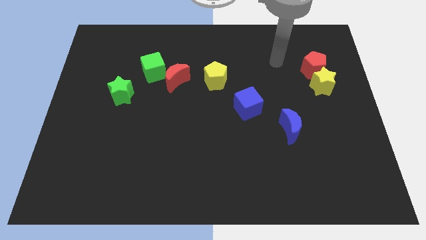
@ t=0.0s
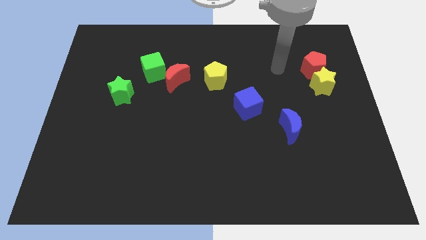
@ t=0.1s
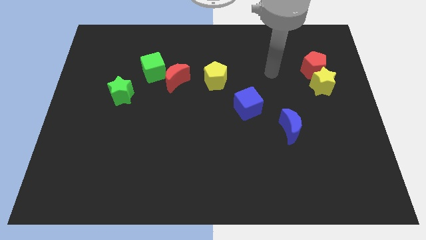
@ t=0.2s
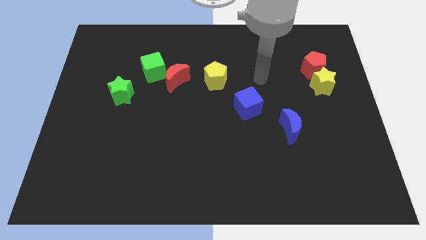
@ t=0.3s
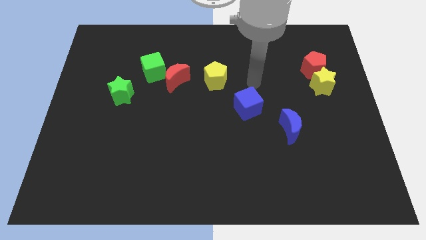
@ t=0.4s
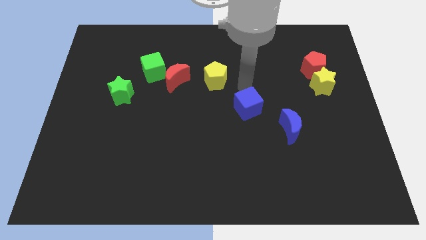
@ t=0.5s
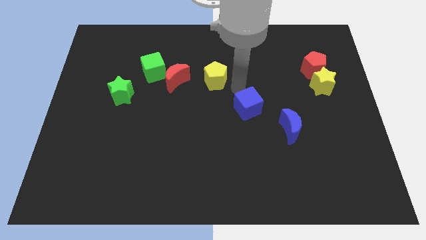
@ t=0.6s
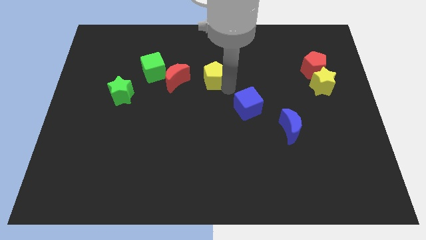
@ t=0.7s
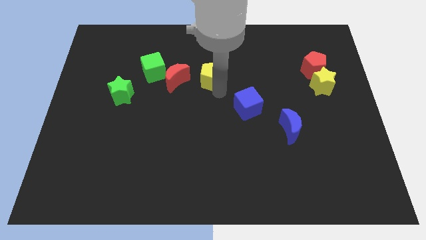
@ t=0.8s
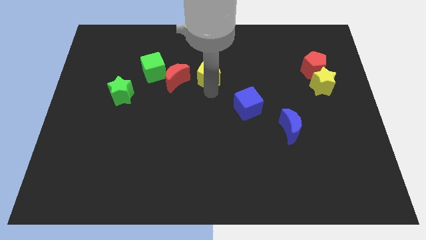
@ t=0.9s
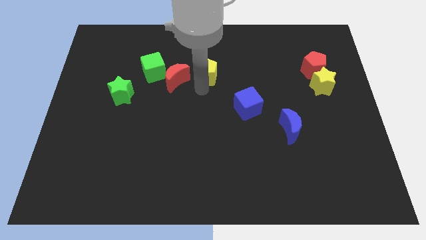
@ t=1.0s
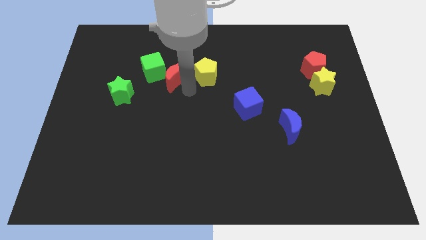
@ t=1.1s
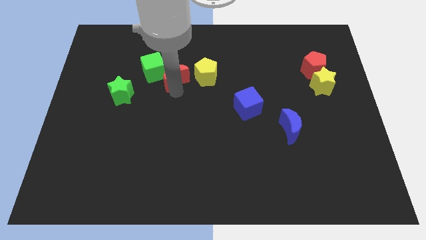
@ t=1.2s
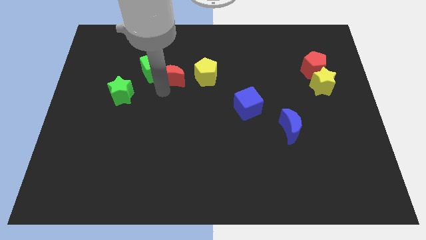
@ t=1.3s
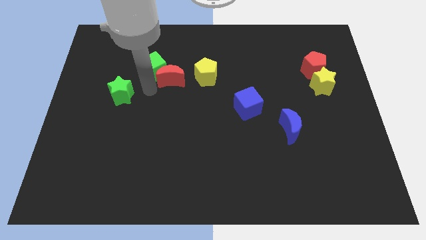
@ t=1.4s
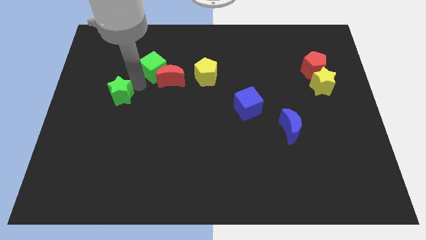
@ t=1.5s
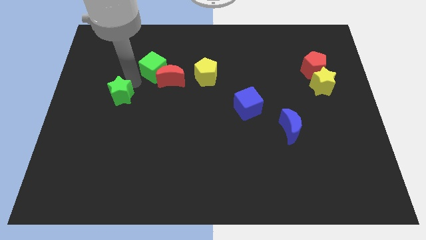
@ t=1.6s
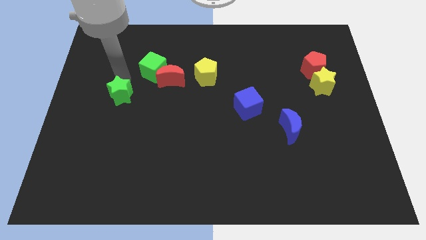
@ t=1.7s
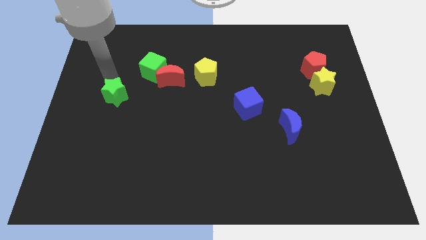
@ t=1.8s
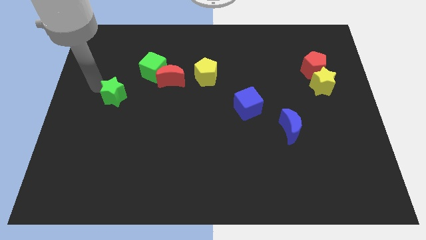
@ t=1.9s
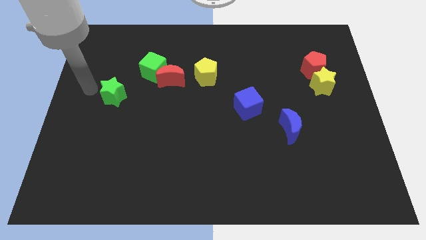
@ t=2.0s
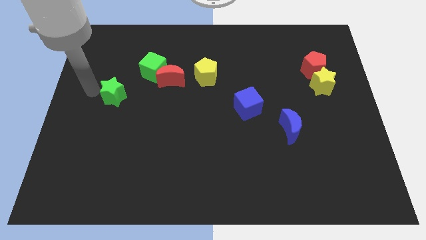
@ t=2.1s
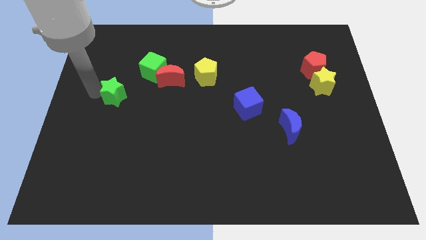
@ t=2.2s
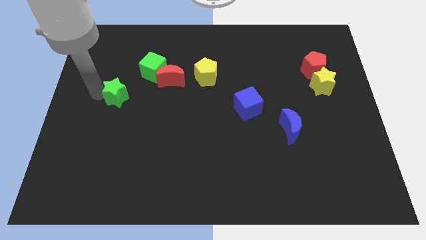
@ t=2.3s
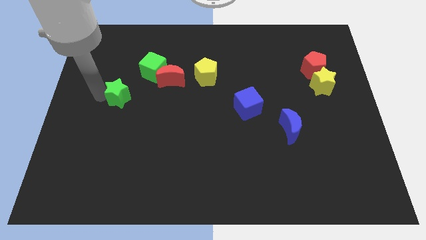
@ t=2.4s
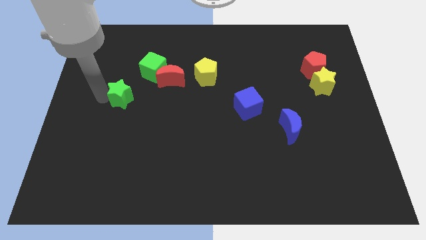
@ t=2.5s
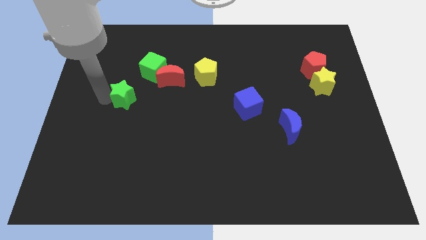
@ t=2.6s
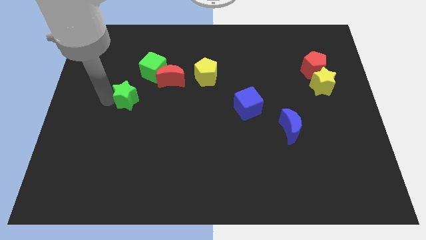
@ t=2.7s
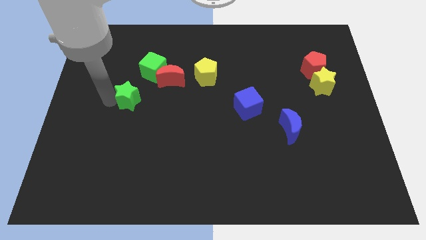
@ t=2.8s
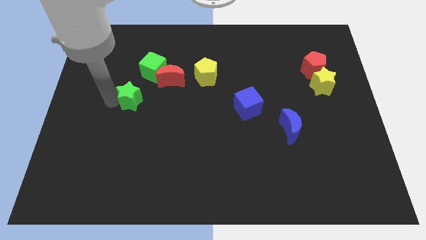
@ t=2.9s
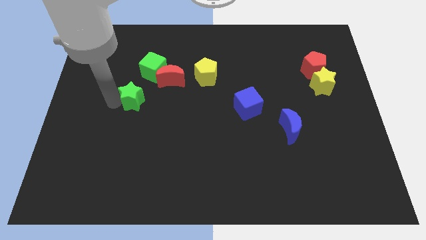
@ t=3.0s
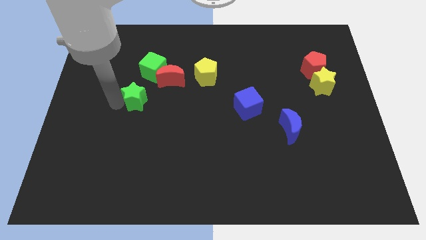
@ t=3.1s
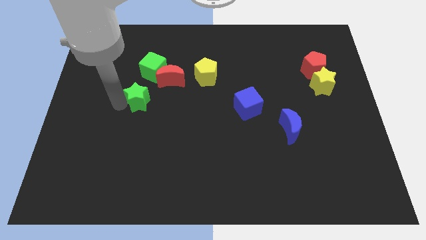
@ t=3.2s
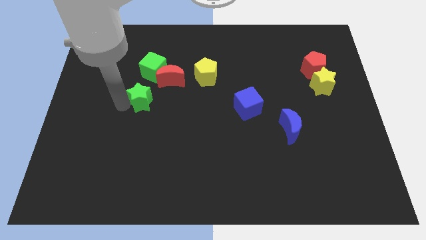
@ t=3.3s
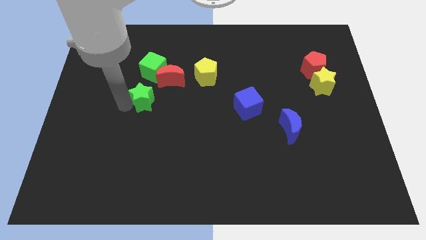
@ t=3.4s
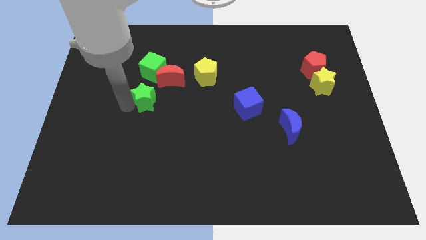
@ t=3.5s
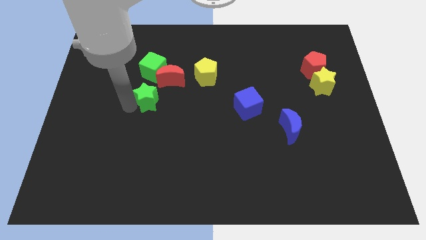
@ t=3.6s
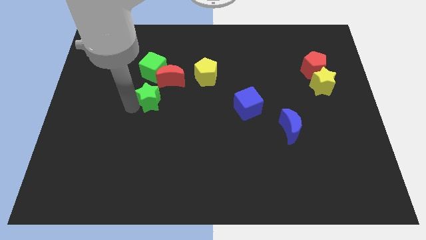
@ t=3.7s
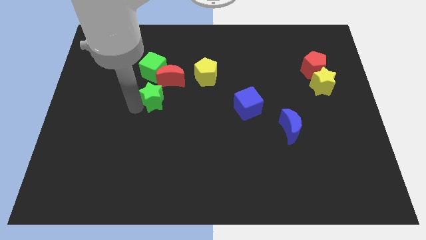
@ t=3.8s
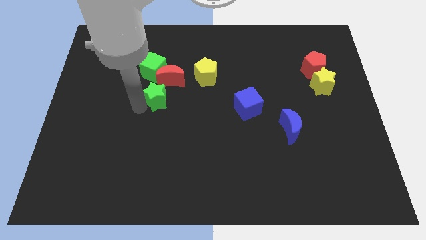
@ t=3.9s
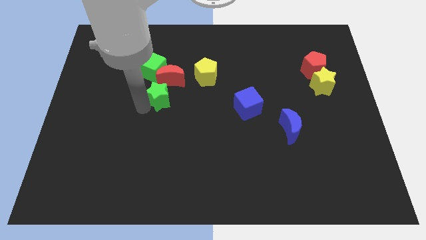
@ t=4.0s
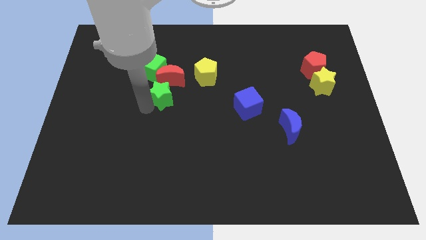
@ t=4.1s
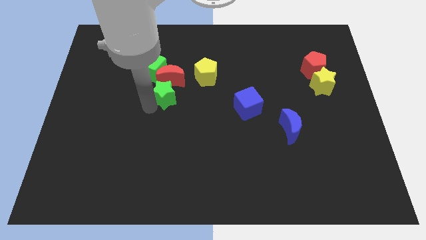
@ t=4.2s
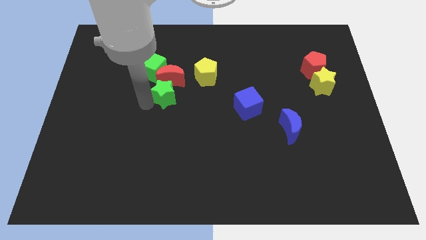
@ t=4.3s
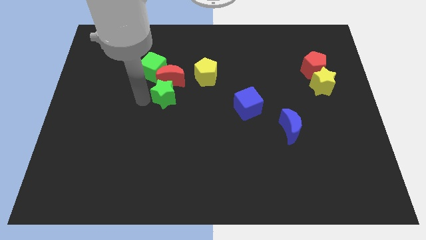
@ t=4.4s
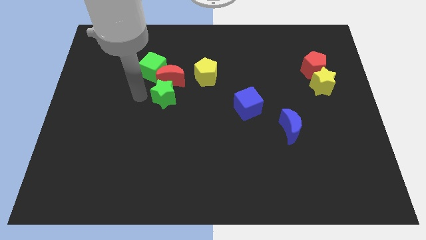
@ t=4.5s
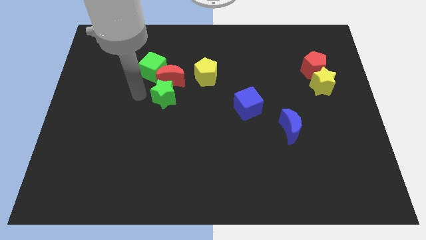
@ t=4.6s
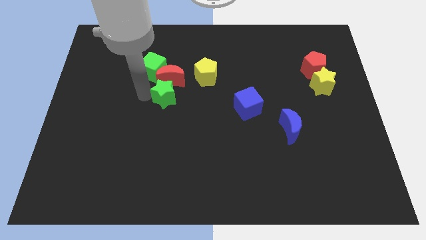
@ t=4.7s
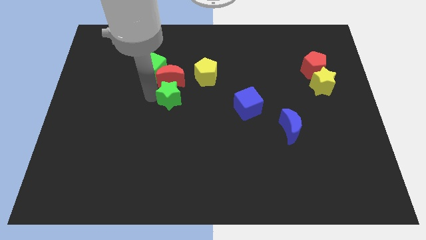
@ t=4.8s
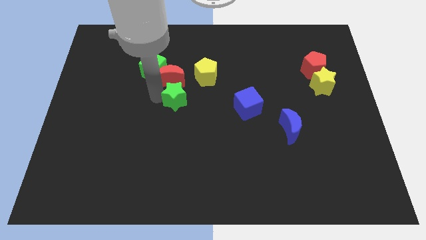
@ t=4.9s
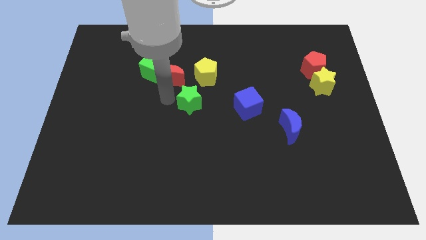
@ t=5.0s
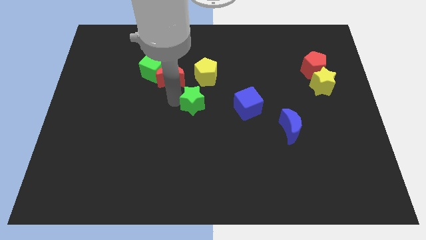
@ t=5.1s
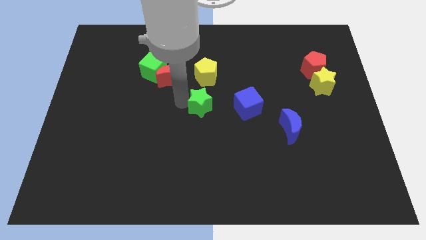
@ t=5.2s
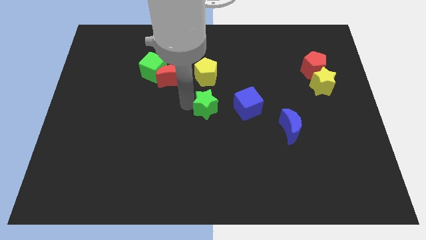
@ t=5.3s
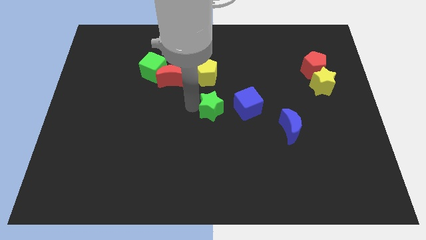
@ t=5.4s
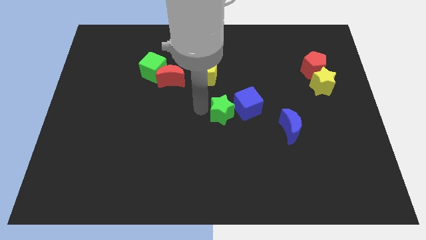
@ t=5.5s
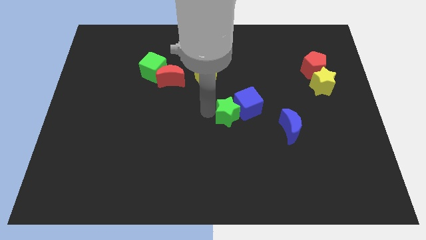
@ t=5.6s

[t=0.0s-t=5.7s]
push the green star next to the blue cube

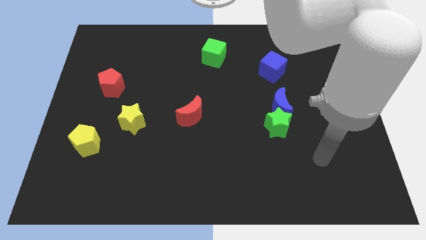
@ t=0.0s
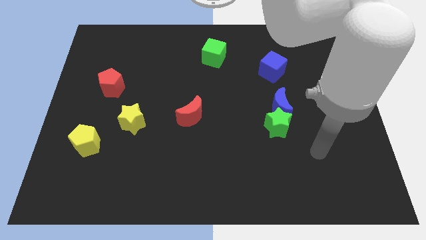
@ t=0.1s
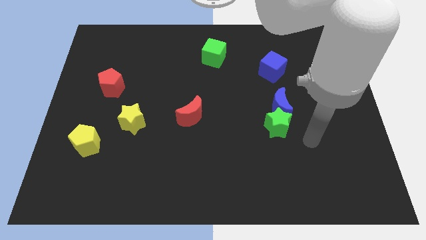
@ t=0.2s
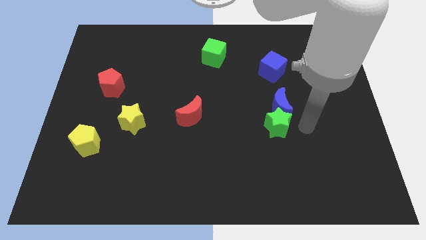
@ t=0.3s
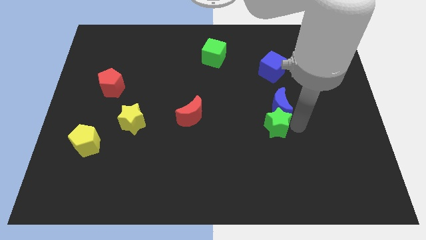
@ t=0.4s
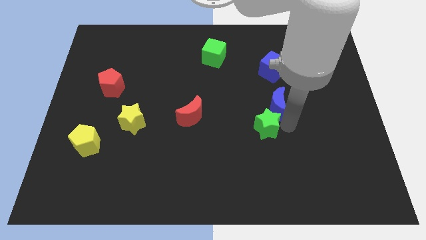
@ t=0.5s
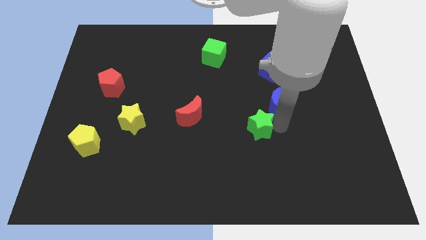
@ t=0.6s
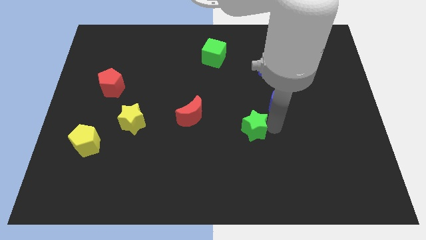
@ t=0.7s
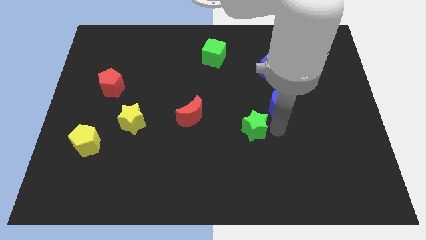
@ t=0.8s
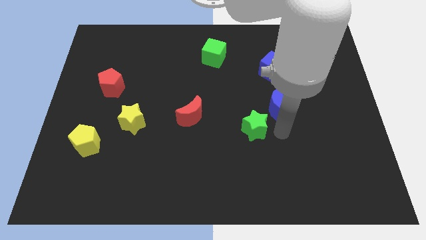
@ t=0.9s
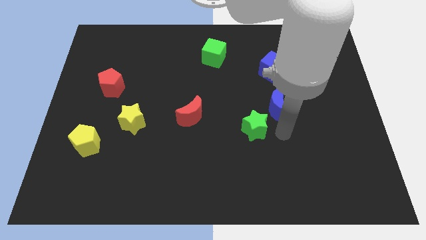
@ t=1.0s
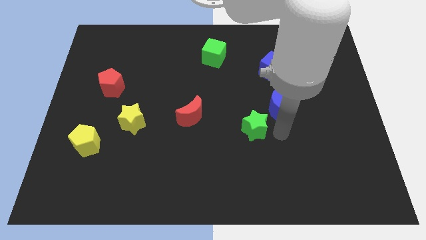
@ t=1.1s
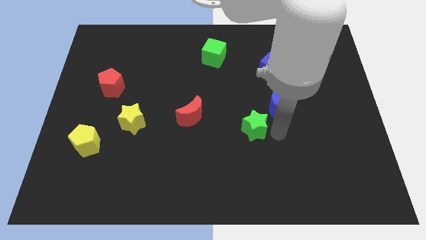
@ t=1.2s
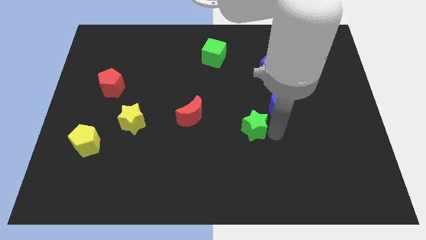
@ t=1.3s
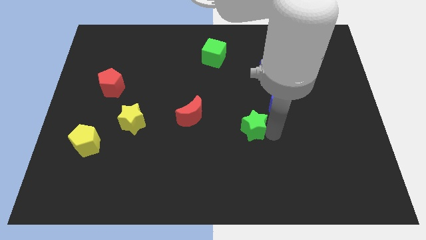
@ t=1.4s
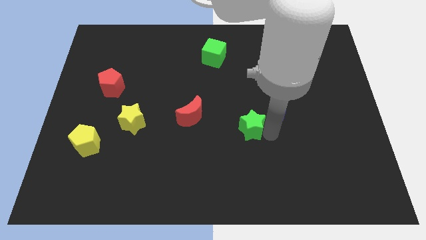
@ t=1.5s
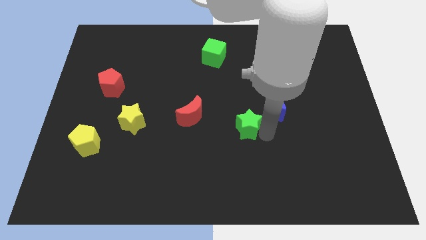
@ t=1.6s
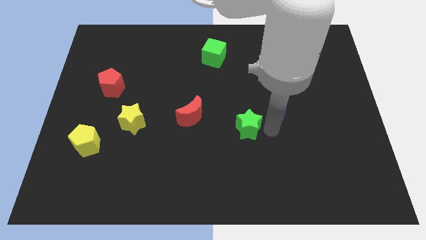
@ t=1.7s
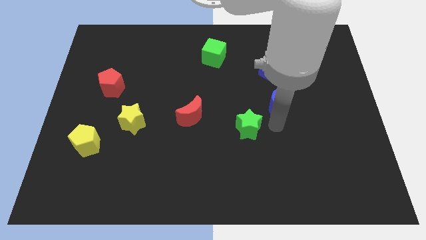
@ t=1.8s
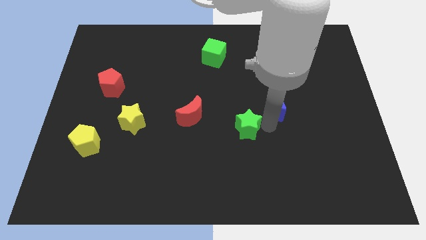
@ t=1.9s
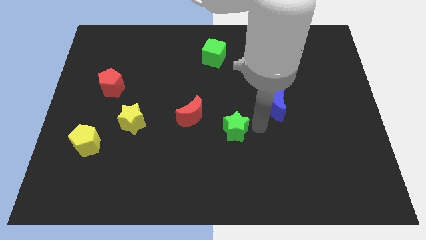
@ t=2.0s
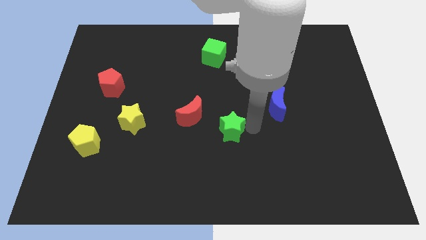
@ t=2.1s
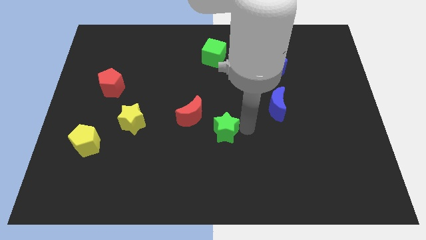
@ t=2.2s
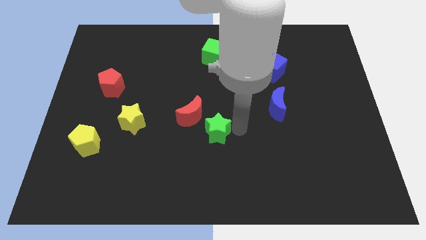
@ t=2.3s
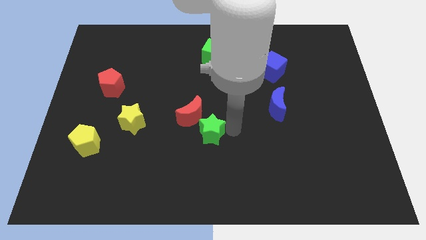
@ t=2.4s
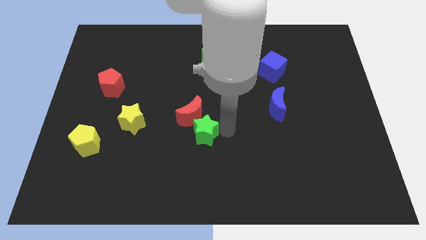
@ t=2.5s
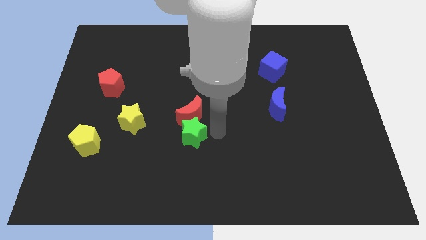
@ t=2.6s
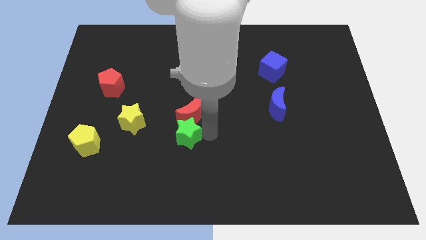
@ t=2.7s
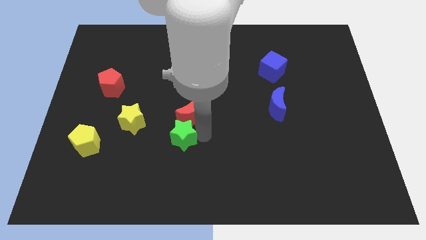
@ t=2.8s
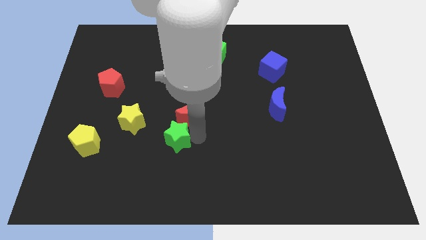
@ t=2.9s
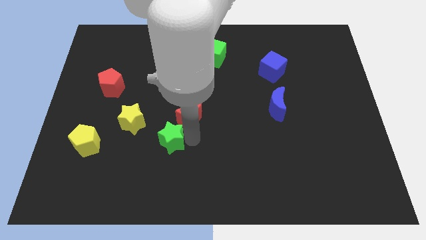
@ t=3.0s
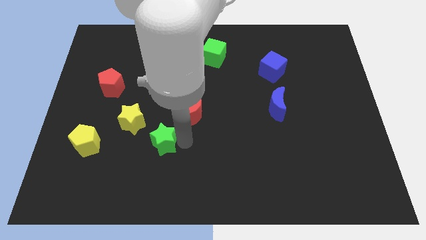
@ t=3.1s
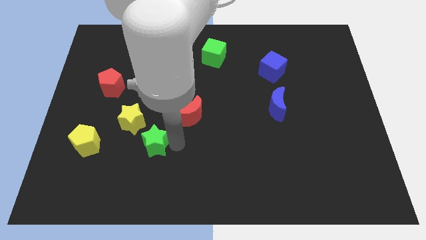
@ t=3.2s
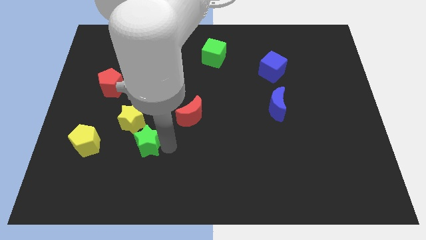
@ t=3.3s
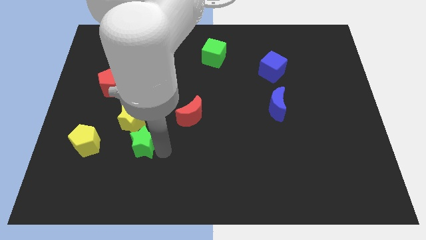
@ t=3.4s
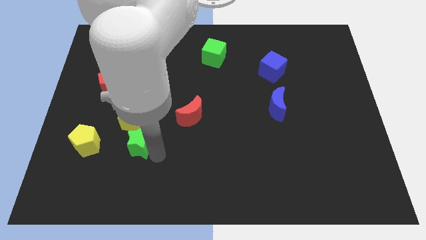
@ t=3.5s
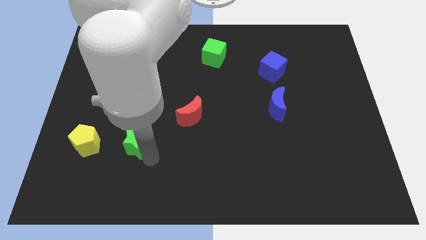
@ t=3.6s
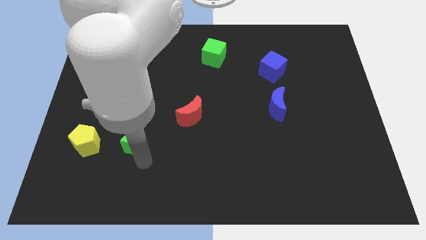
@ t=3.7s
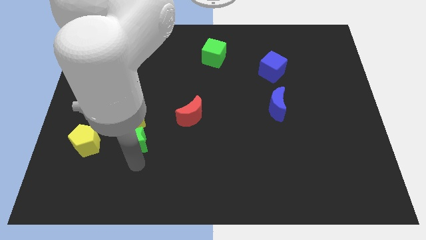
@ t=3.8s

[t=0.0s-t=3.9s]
push the green star to the yellow star
